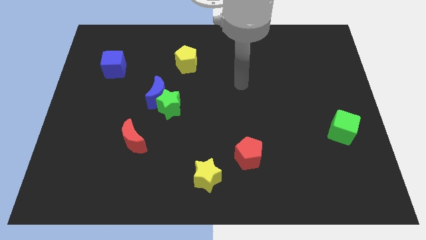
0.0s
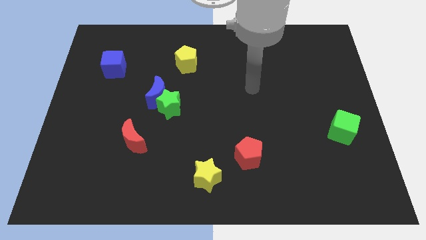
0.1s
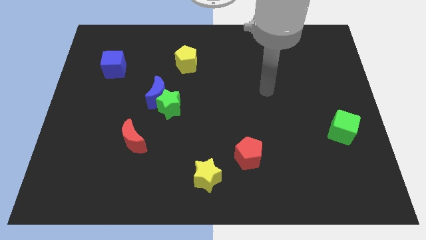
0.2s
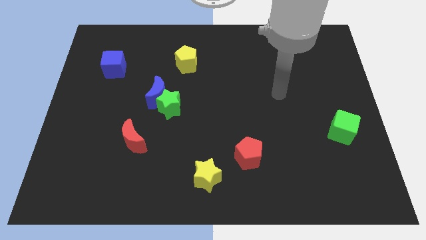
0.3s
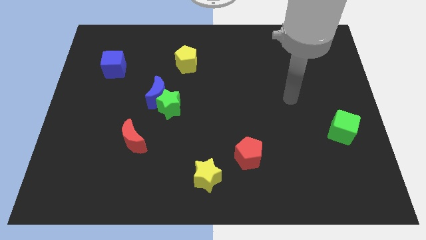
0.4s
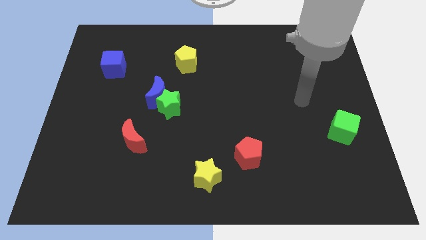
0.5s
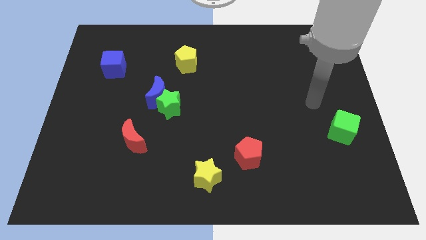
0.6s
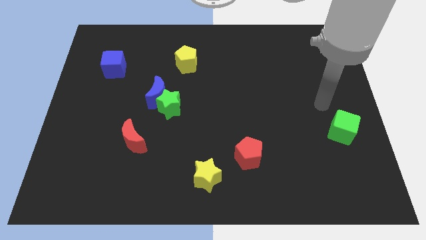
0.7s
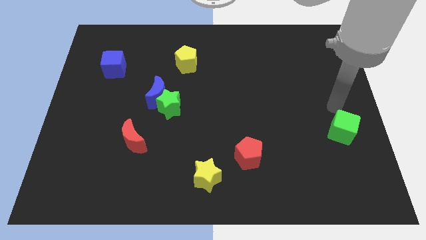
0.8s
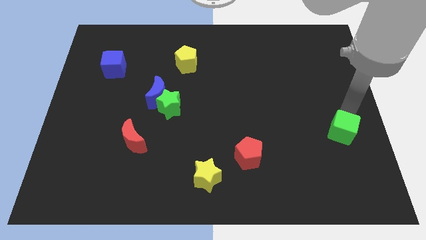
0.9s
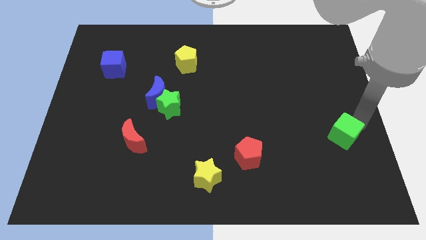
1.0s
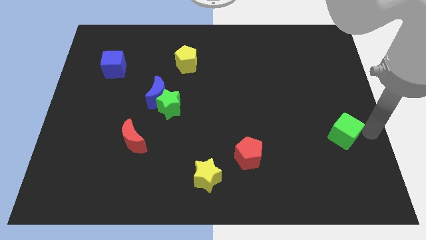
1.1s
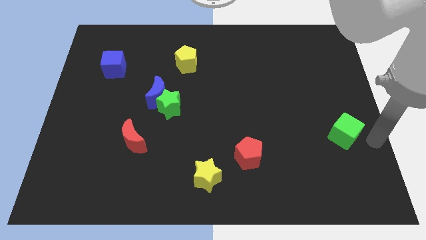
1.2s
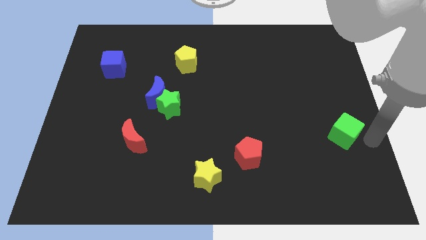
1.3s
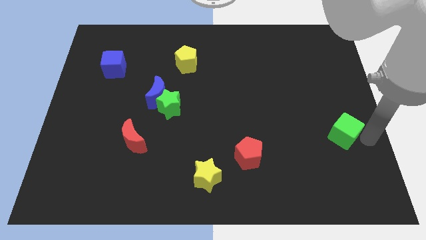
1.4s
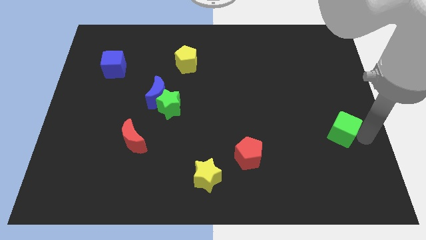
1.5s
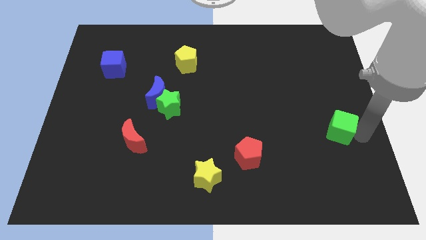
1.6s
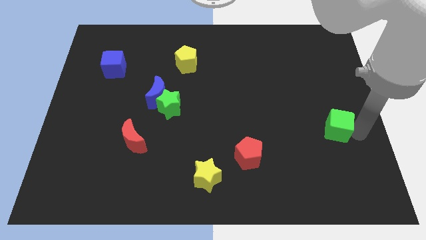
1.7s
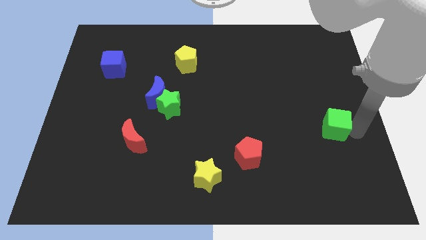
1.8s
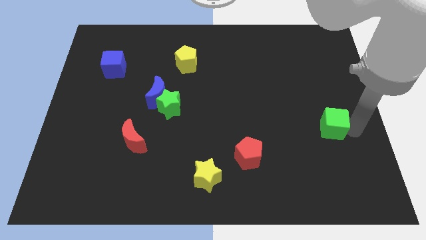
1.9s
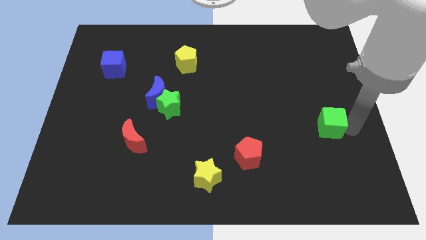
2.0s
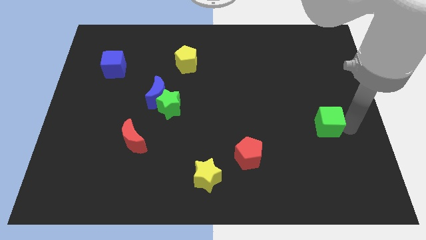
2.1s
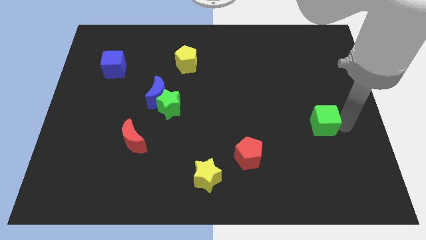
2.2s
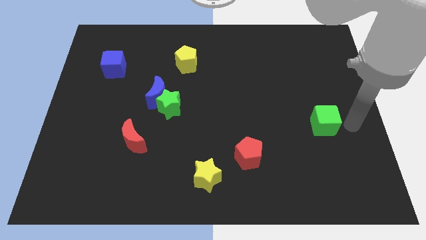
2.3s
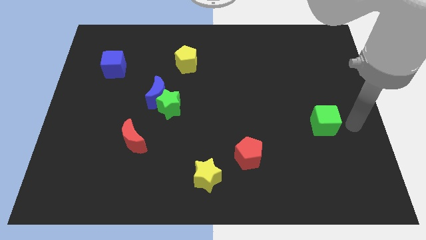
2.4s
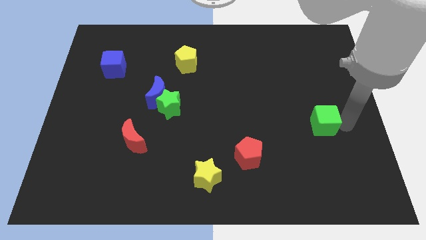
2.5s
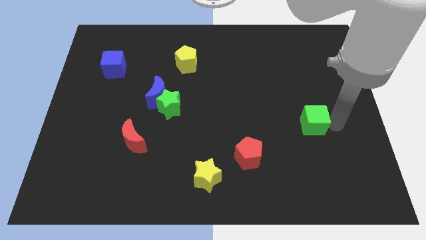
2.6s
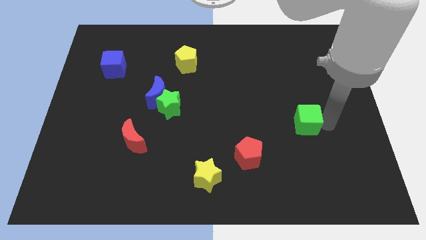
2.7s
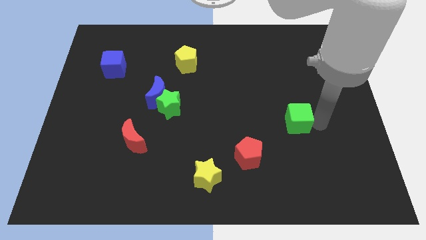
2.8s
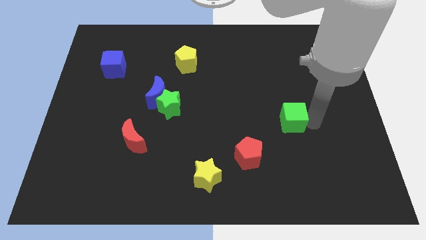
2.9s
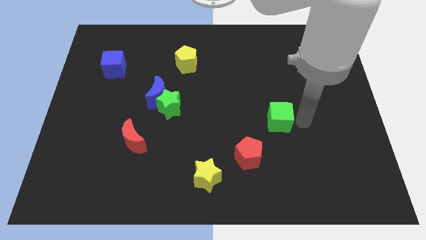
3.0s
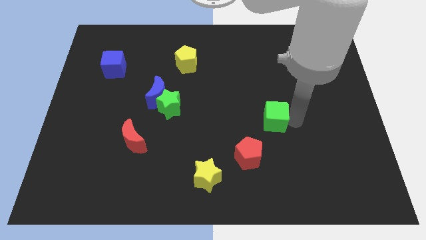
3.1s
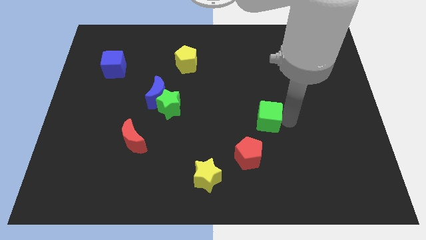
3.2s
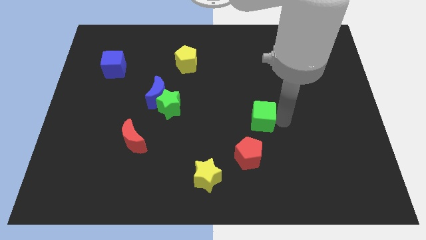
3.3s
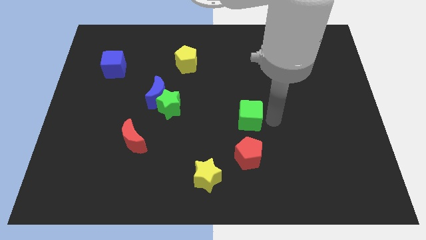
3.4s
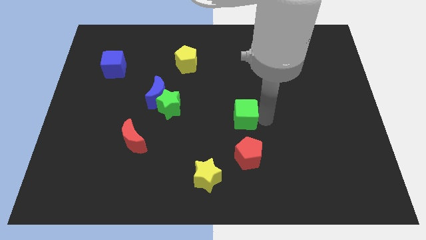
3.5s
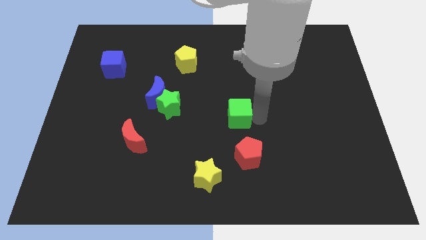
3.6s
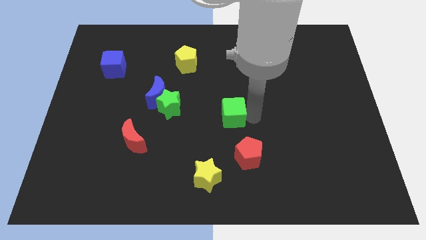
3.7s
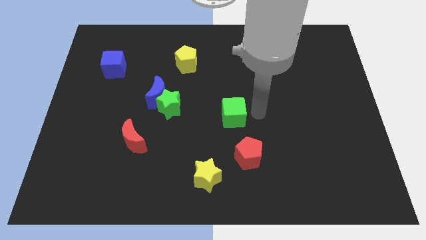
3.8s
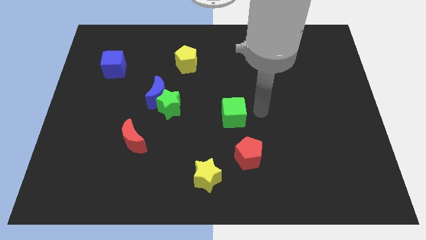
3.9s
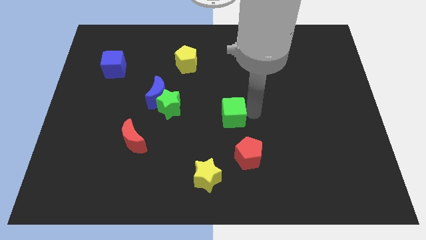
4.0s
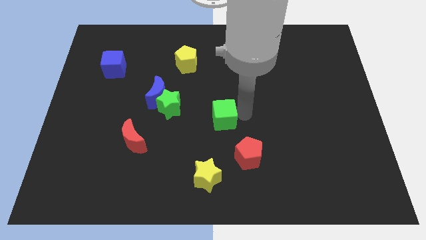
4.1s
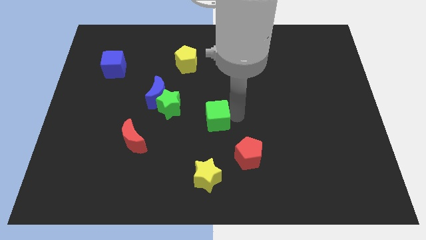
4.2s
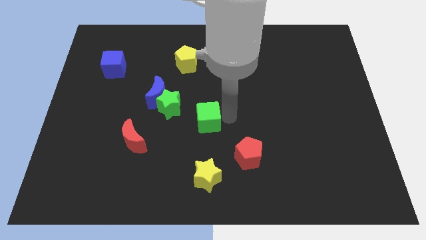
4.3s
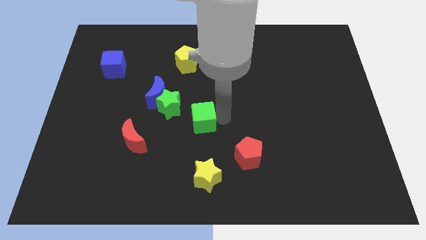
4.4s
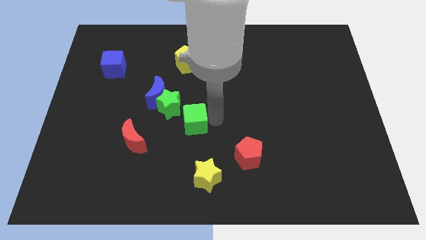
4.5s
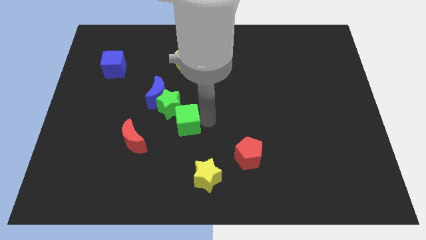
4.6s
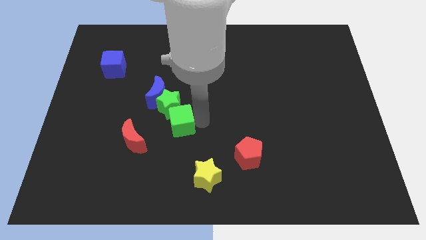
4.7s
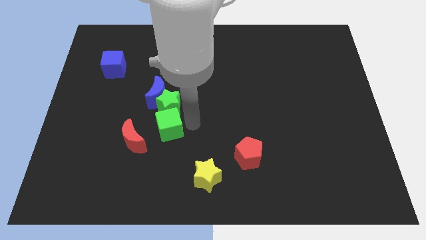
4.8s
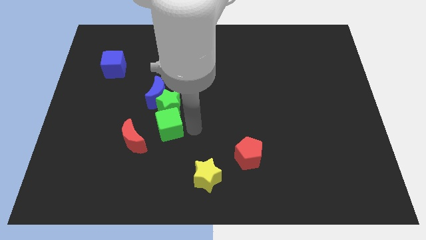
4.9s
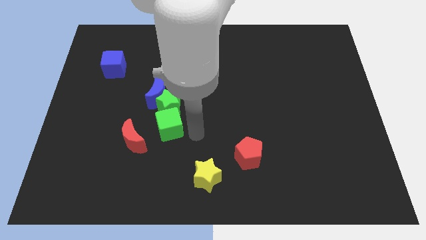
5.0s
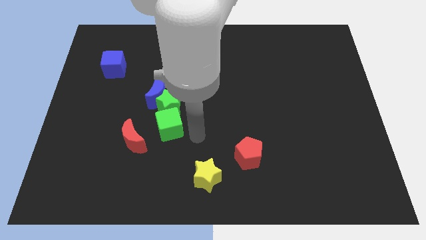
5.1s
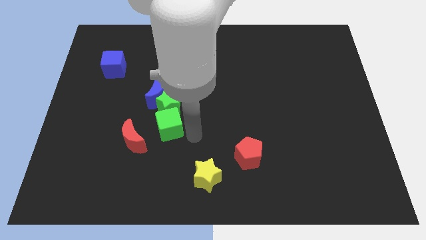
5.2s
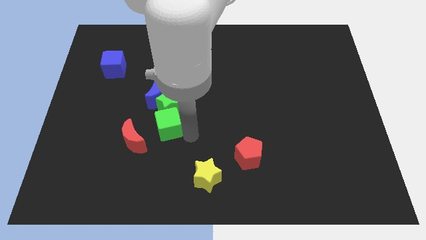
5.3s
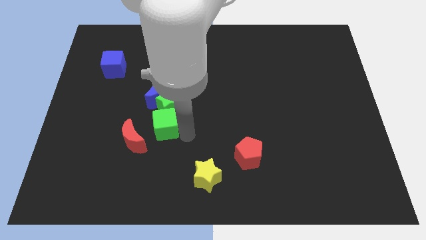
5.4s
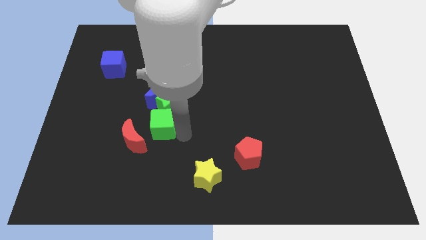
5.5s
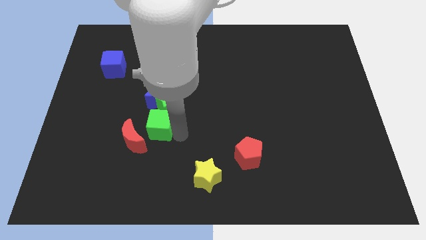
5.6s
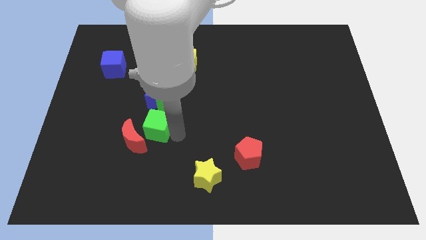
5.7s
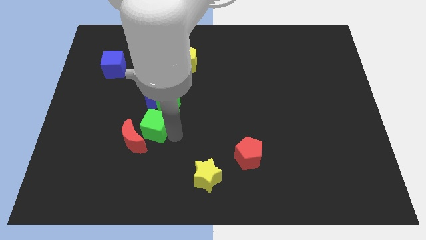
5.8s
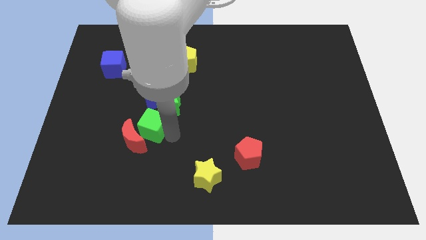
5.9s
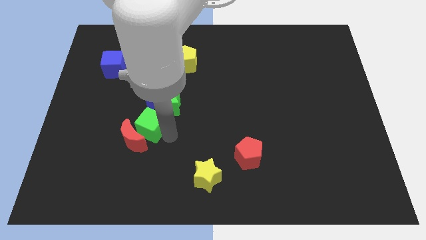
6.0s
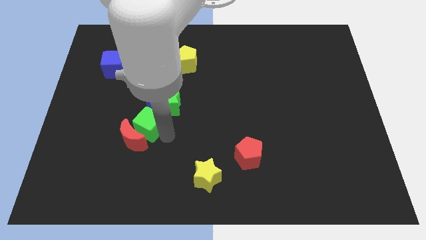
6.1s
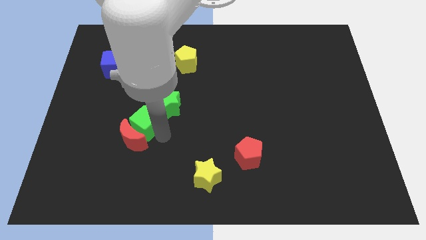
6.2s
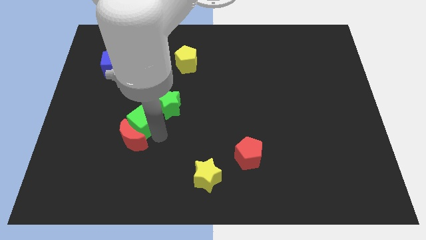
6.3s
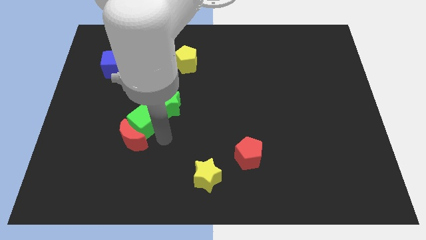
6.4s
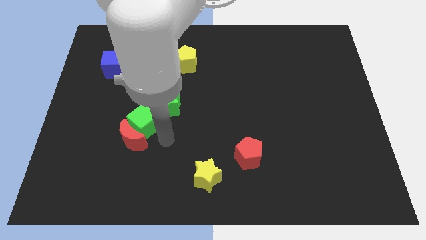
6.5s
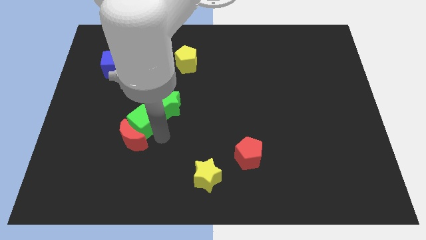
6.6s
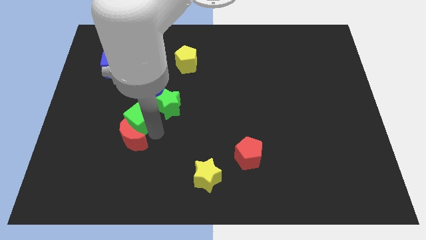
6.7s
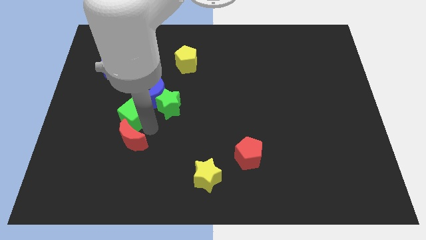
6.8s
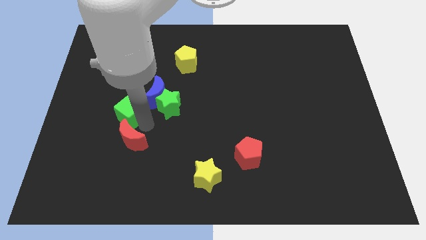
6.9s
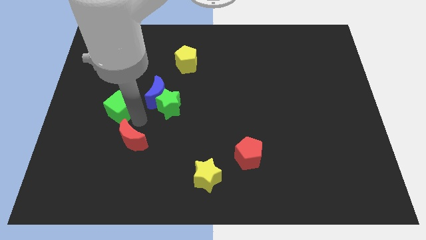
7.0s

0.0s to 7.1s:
slide the green cube to the bottom of the blue cube
